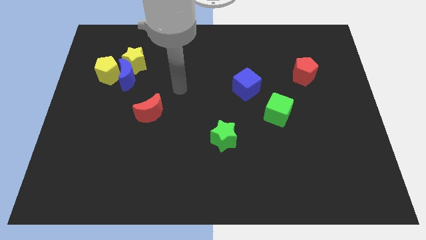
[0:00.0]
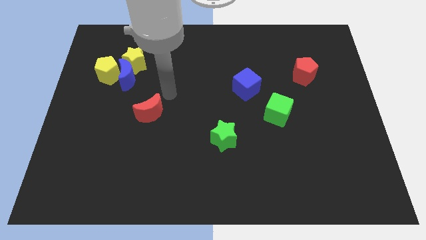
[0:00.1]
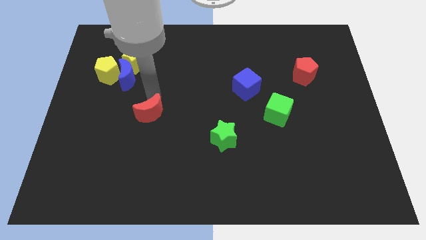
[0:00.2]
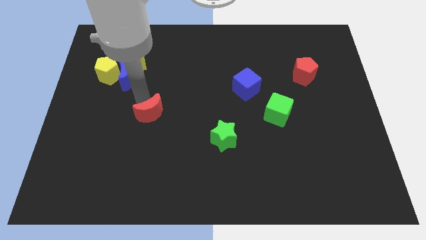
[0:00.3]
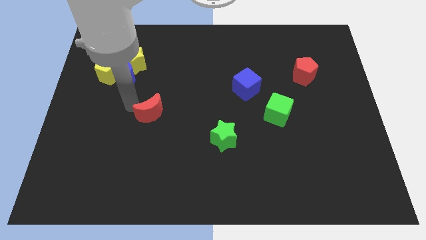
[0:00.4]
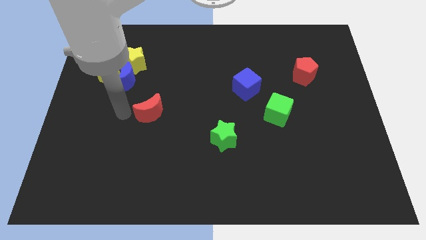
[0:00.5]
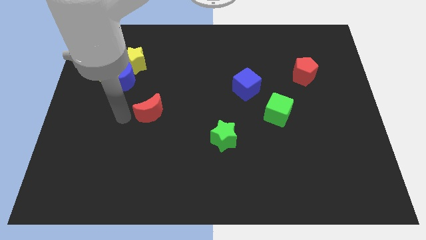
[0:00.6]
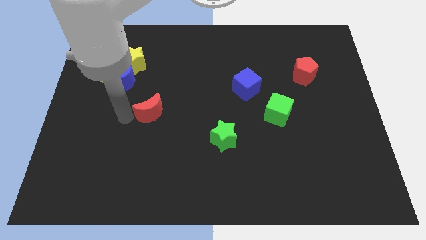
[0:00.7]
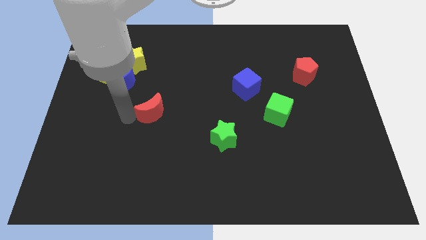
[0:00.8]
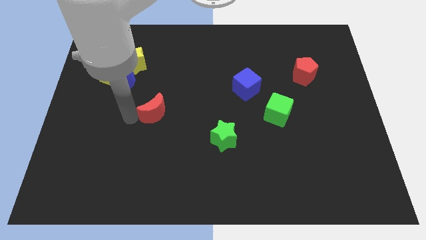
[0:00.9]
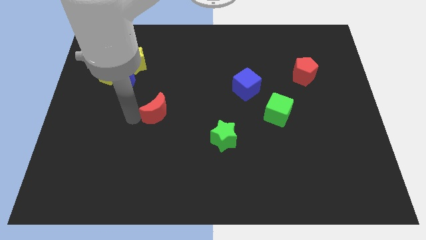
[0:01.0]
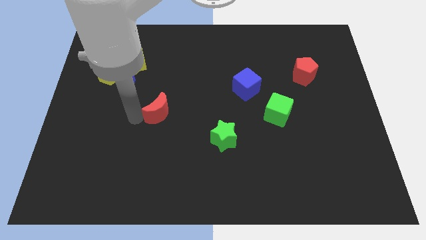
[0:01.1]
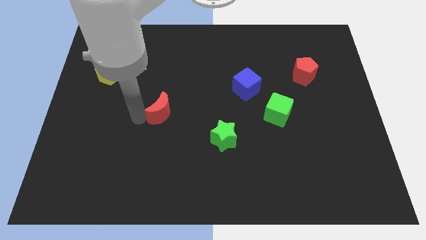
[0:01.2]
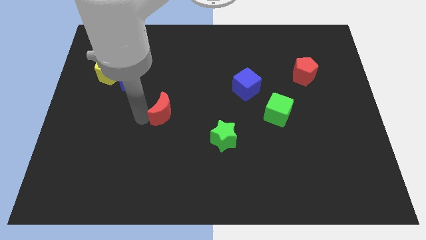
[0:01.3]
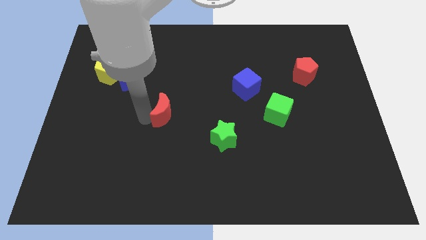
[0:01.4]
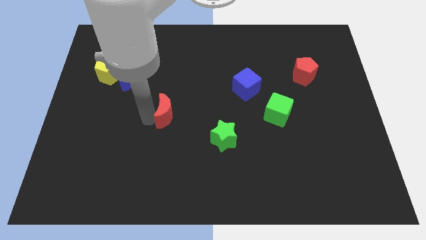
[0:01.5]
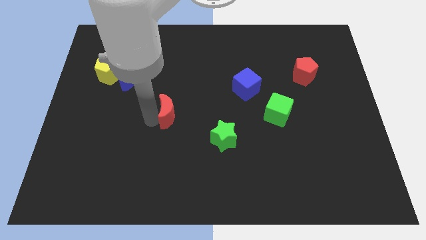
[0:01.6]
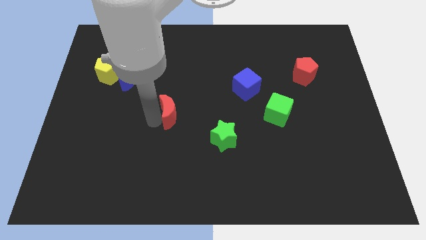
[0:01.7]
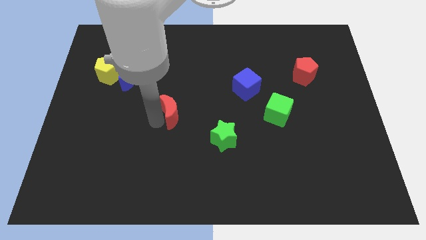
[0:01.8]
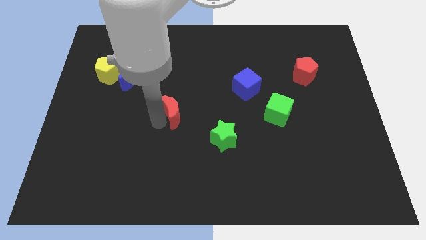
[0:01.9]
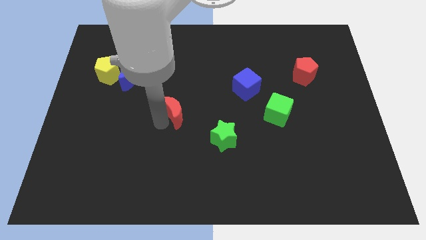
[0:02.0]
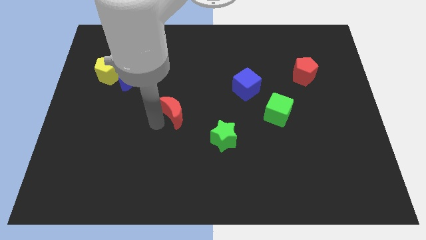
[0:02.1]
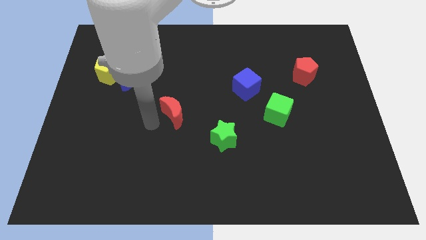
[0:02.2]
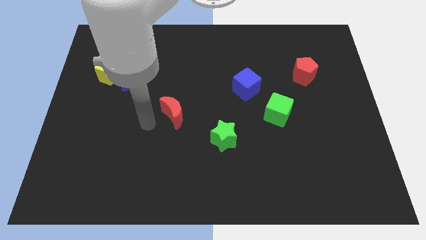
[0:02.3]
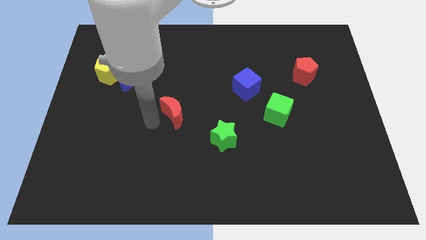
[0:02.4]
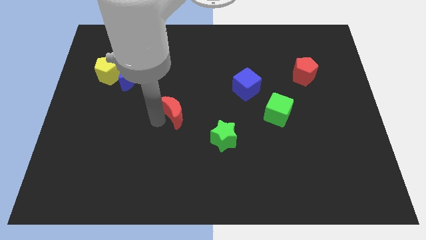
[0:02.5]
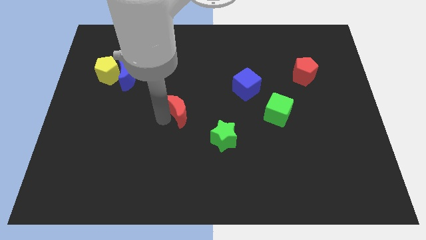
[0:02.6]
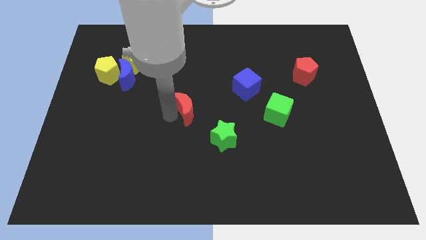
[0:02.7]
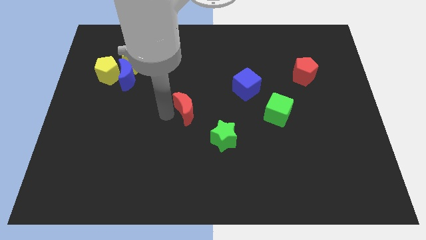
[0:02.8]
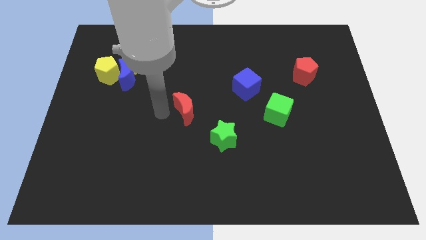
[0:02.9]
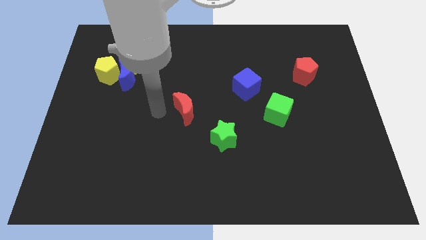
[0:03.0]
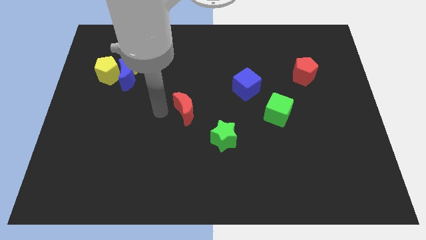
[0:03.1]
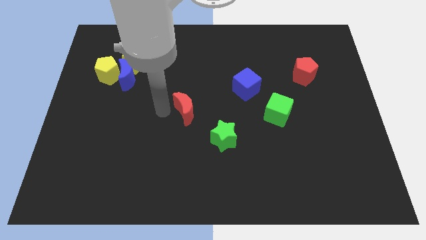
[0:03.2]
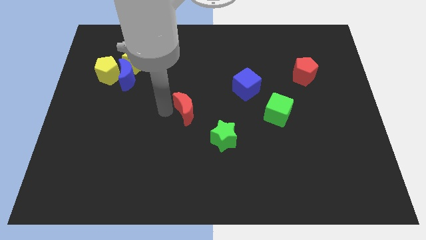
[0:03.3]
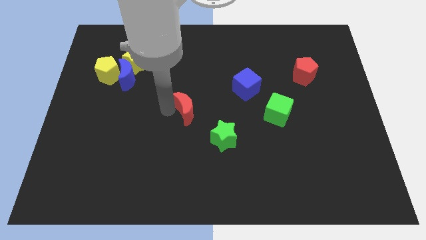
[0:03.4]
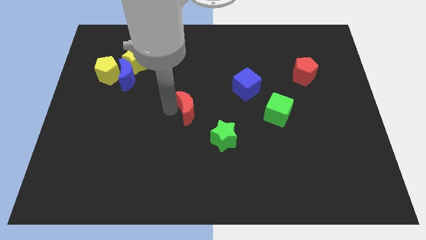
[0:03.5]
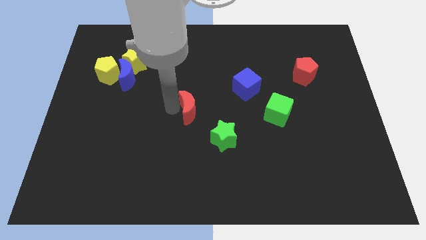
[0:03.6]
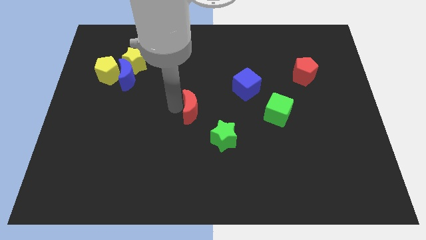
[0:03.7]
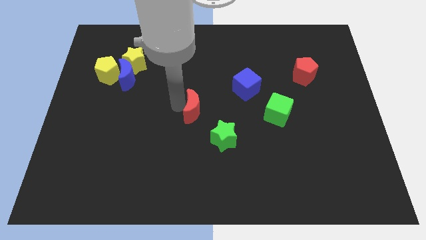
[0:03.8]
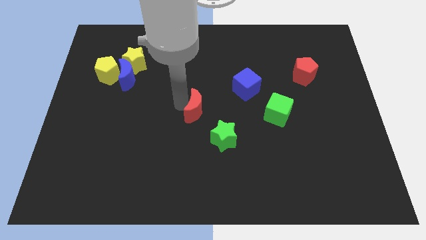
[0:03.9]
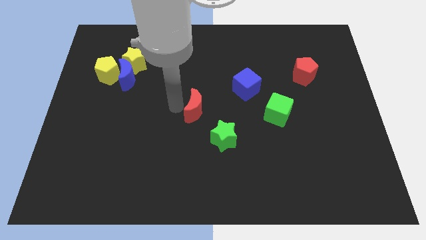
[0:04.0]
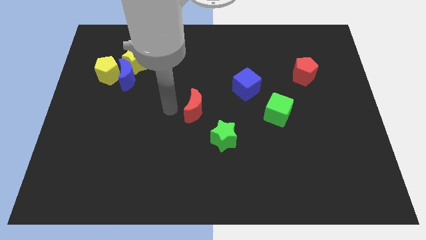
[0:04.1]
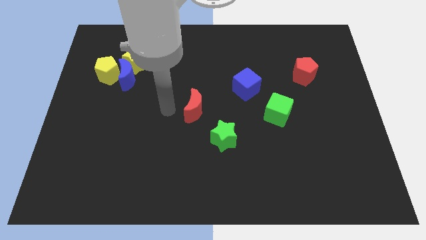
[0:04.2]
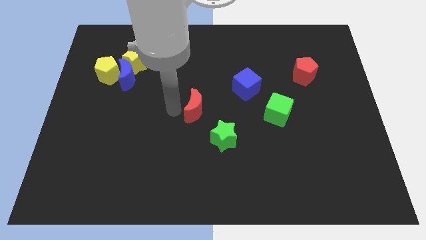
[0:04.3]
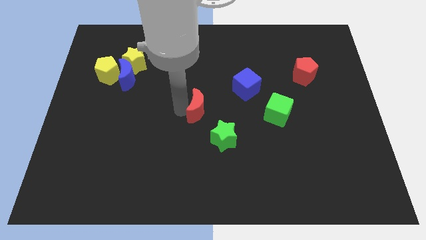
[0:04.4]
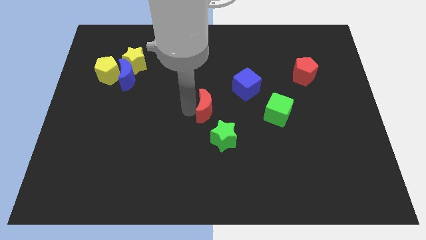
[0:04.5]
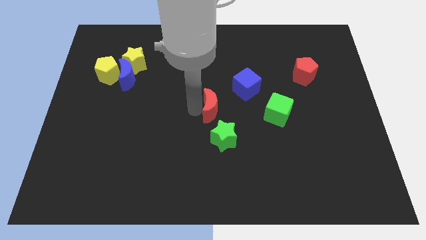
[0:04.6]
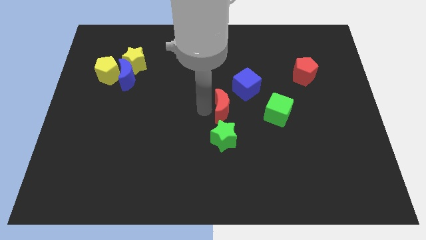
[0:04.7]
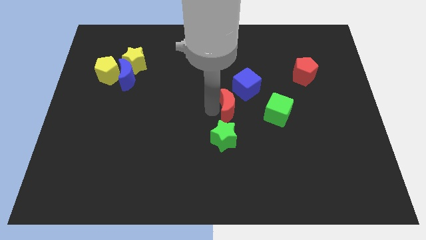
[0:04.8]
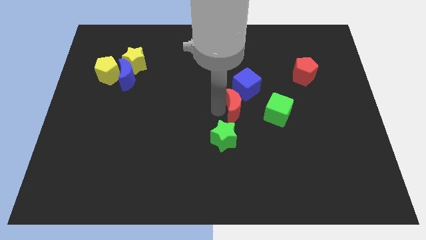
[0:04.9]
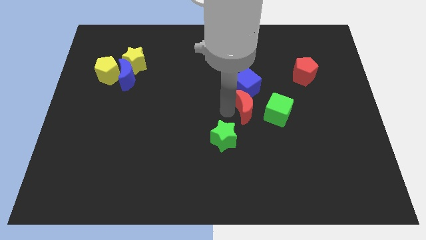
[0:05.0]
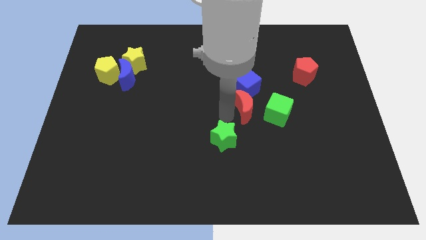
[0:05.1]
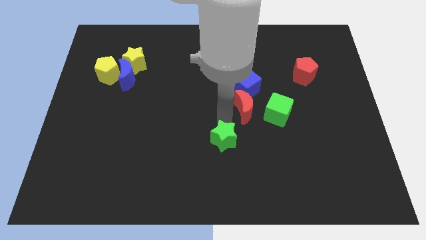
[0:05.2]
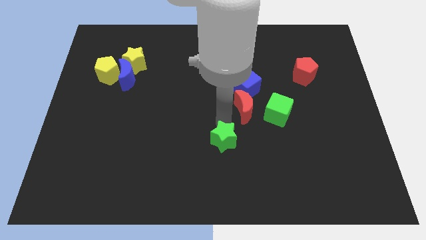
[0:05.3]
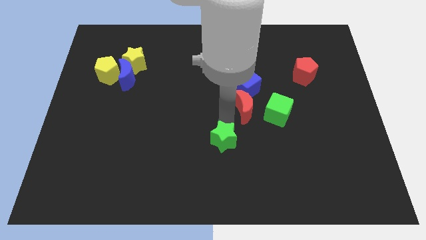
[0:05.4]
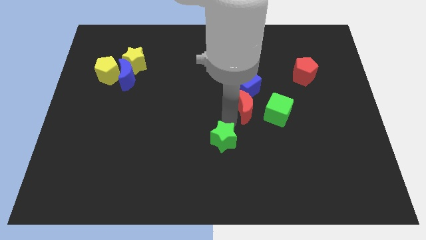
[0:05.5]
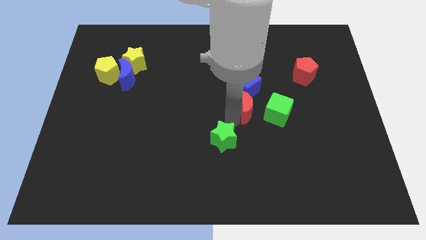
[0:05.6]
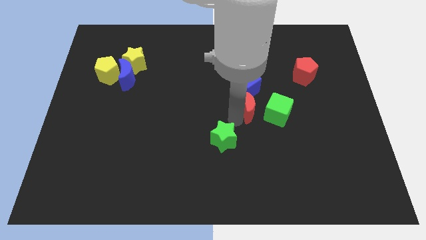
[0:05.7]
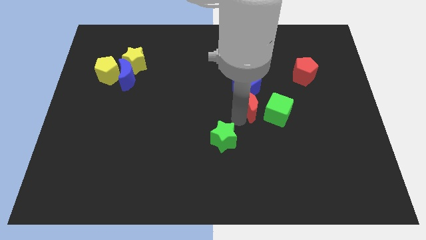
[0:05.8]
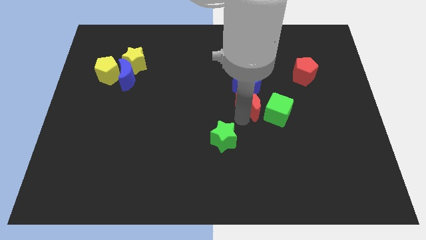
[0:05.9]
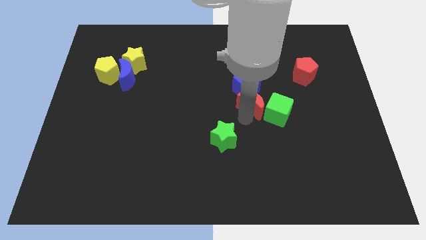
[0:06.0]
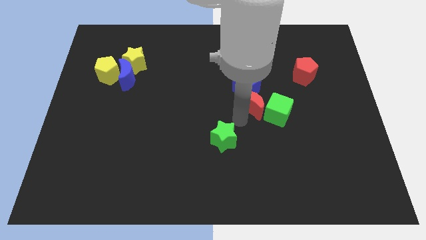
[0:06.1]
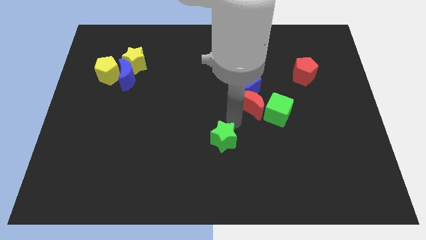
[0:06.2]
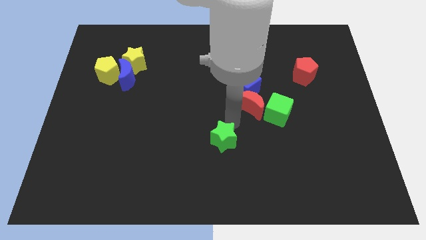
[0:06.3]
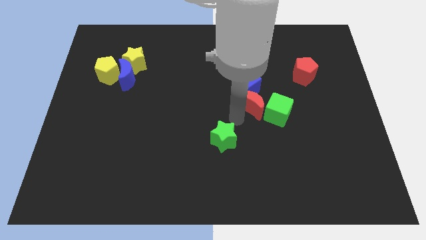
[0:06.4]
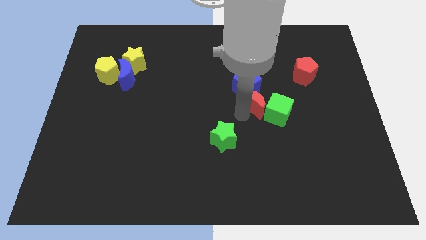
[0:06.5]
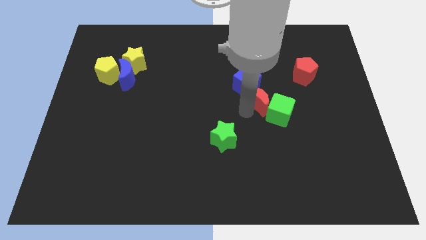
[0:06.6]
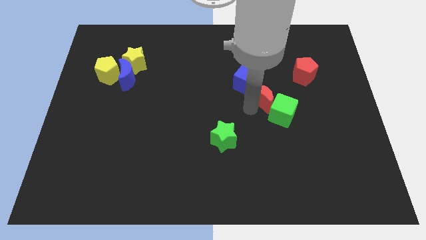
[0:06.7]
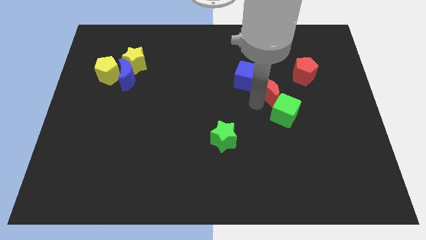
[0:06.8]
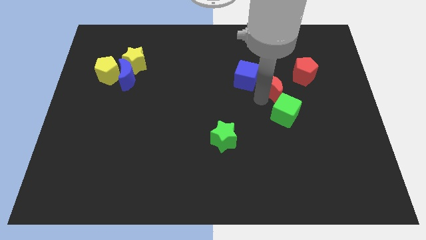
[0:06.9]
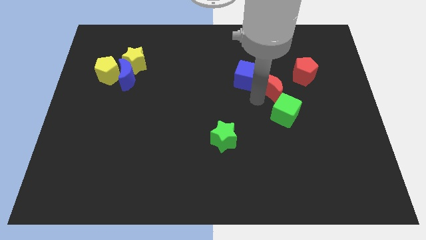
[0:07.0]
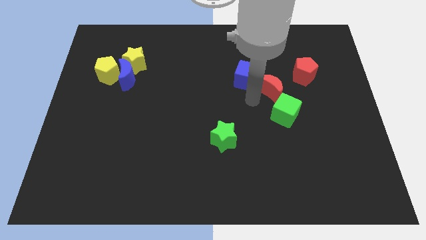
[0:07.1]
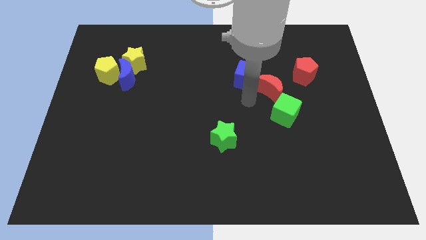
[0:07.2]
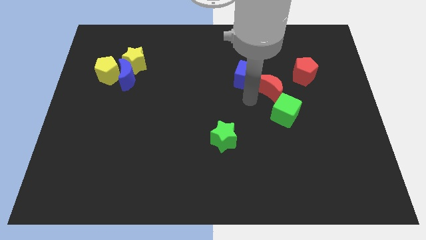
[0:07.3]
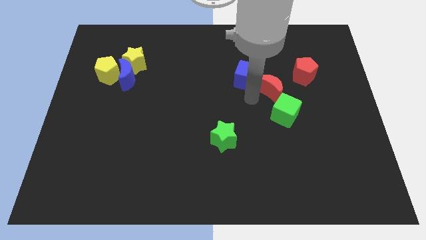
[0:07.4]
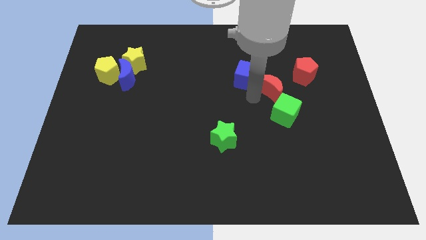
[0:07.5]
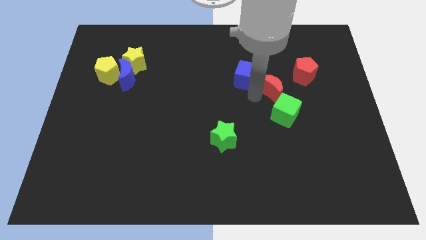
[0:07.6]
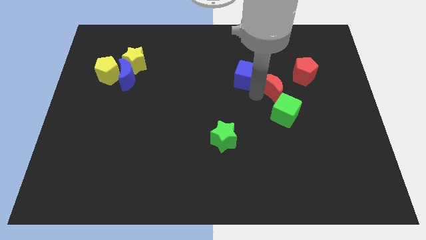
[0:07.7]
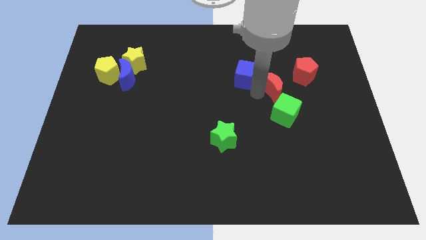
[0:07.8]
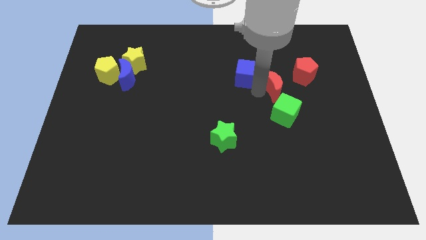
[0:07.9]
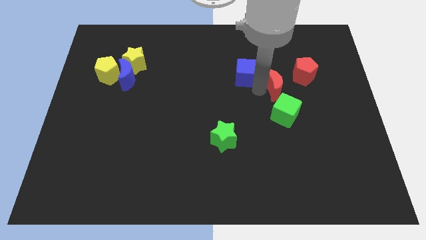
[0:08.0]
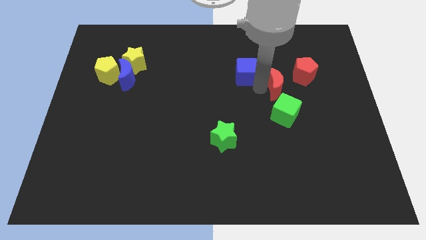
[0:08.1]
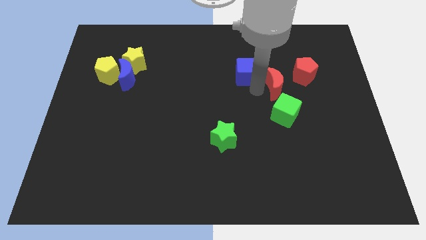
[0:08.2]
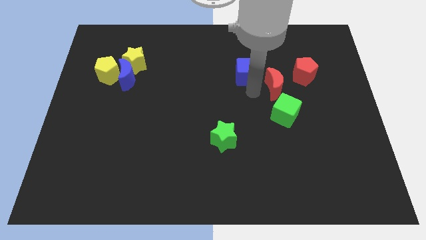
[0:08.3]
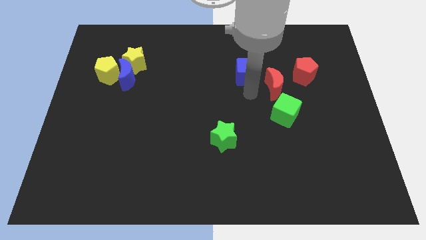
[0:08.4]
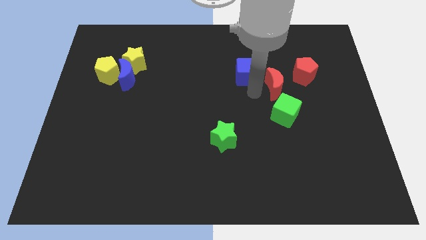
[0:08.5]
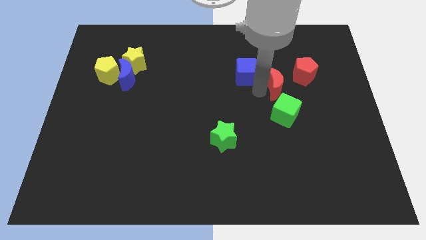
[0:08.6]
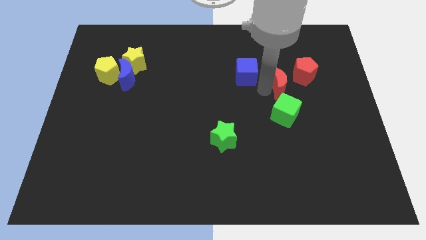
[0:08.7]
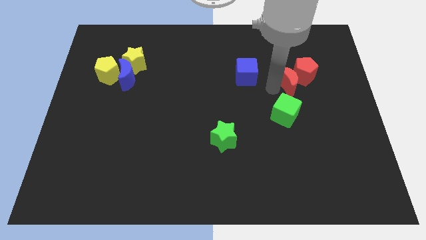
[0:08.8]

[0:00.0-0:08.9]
slide the red moon next to the red pentagon
